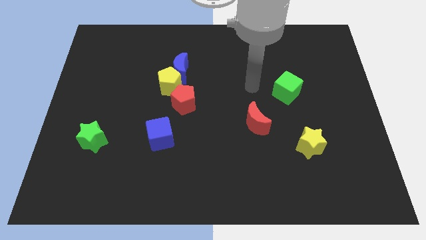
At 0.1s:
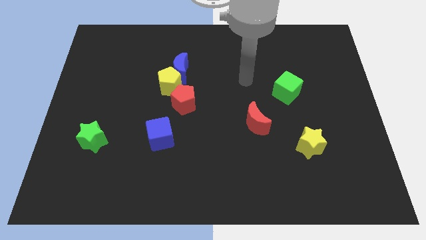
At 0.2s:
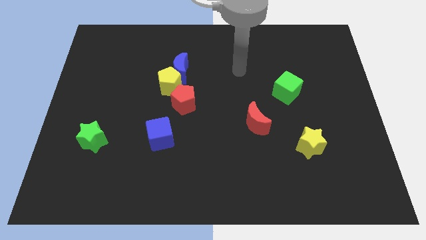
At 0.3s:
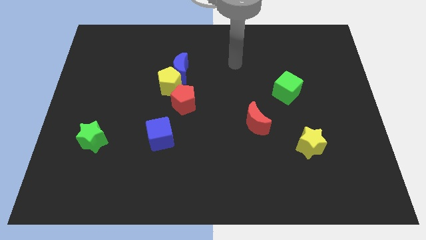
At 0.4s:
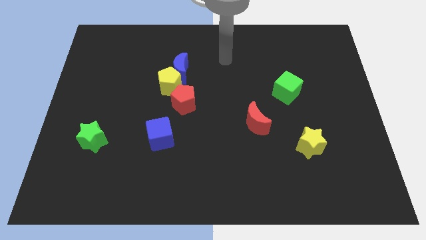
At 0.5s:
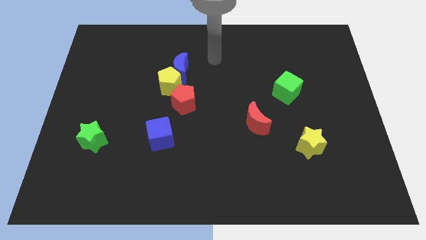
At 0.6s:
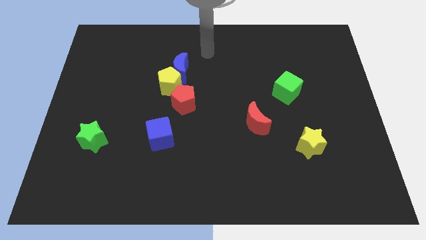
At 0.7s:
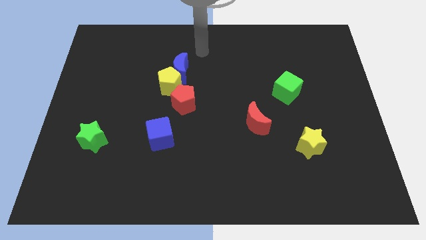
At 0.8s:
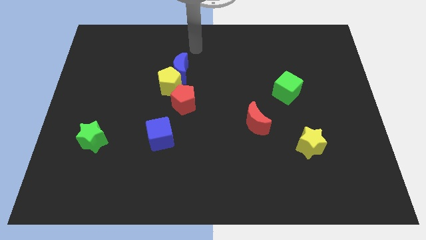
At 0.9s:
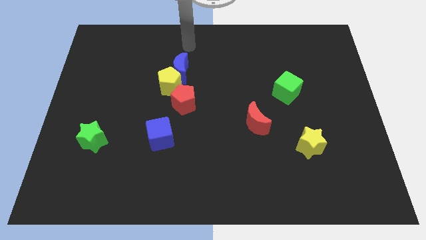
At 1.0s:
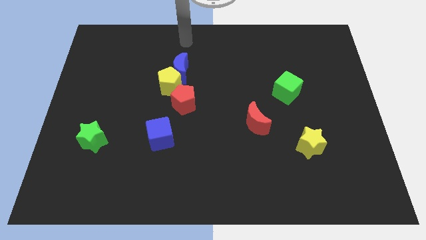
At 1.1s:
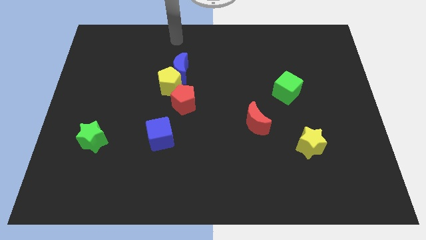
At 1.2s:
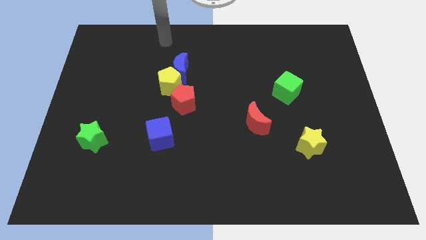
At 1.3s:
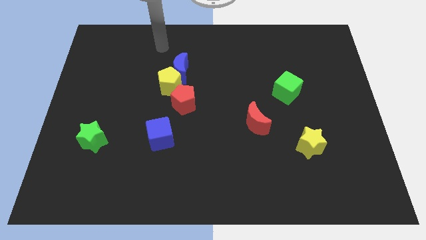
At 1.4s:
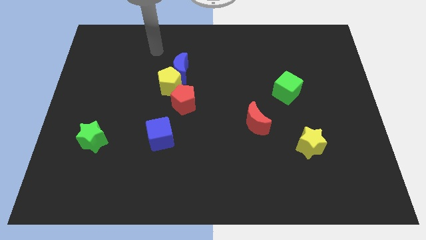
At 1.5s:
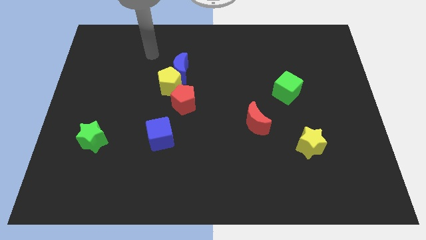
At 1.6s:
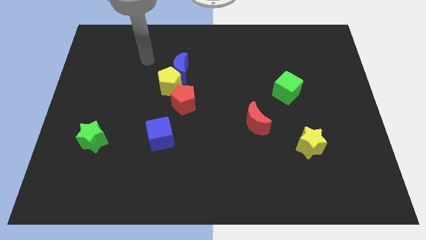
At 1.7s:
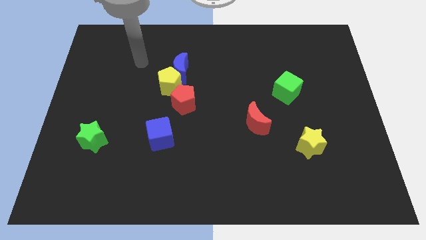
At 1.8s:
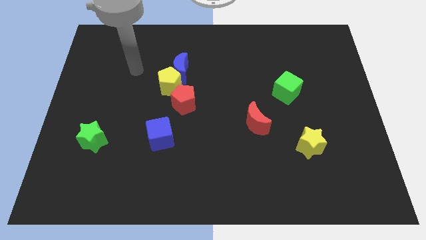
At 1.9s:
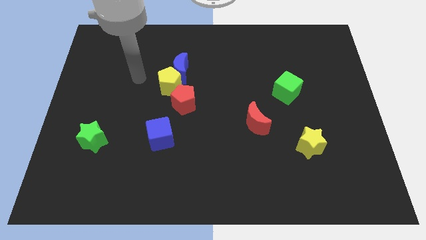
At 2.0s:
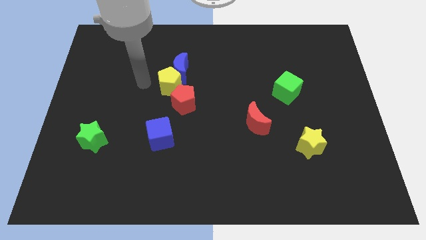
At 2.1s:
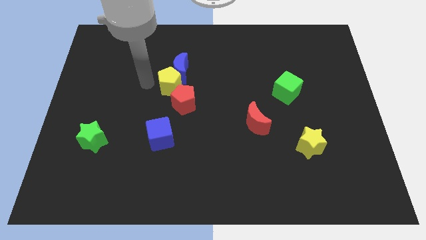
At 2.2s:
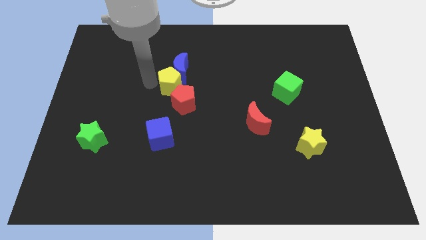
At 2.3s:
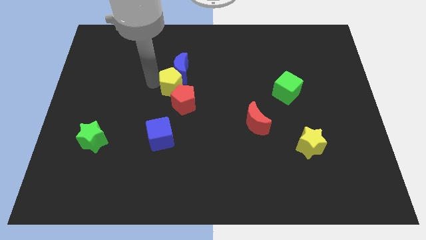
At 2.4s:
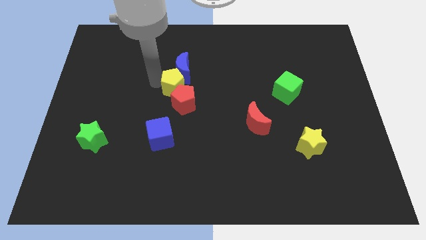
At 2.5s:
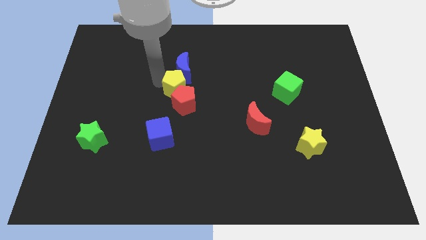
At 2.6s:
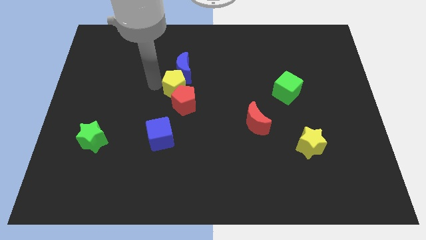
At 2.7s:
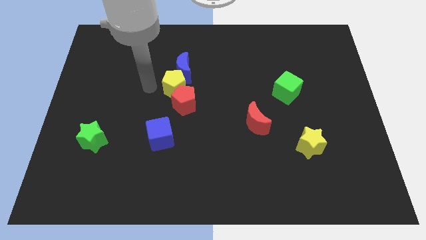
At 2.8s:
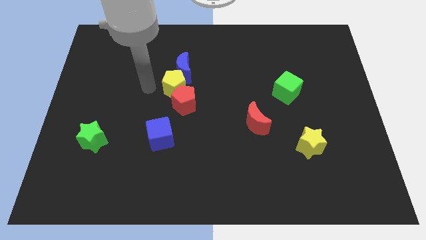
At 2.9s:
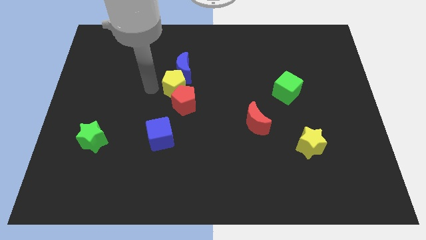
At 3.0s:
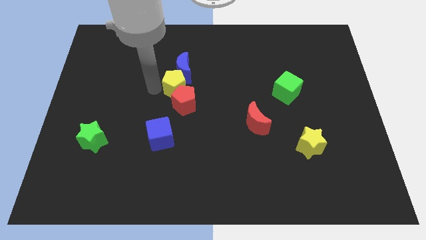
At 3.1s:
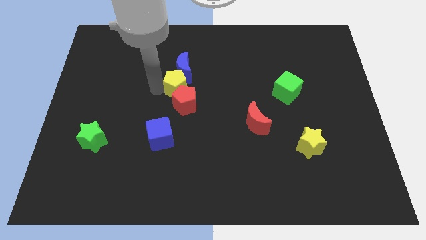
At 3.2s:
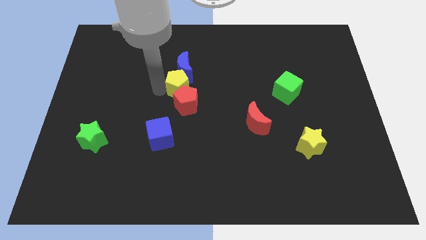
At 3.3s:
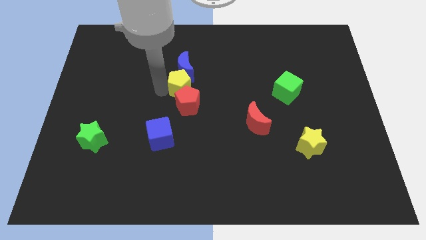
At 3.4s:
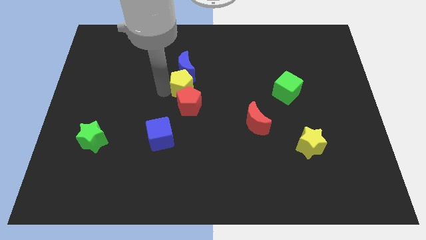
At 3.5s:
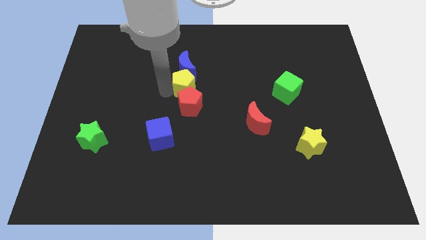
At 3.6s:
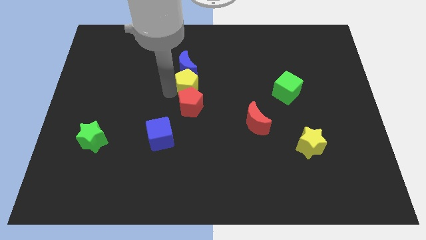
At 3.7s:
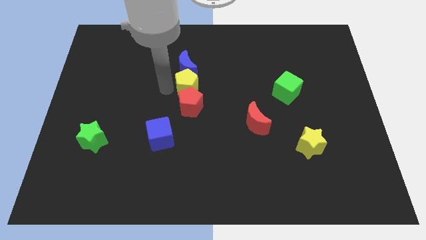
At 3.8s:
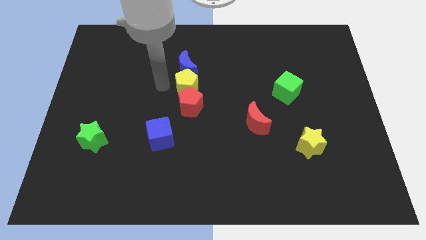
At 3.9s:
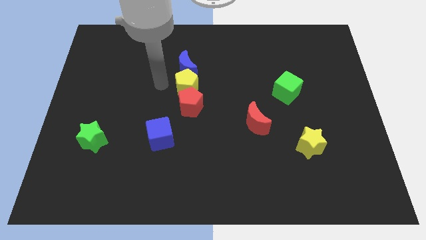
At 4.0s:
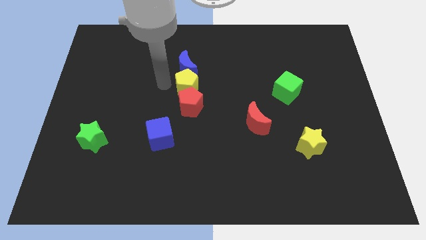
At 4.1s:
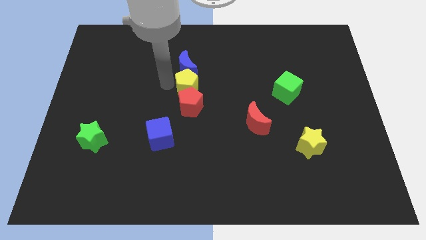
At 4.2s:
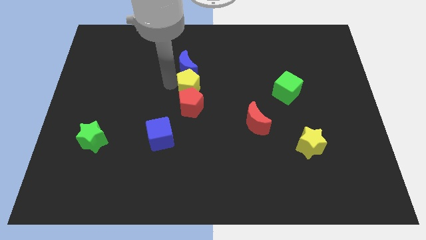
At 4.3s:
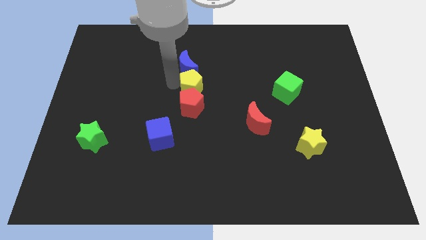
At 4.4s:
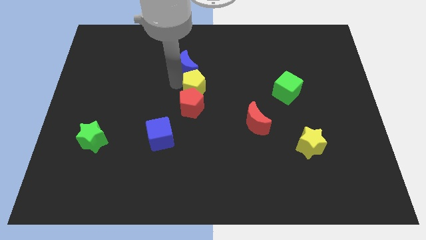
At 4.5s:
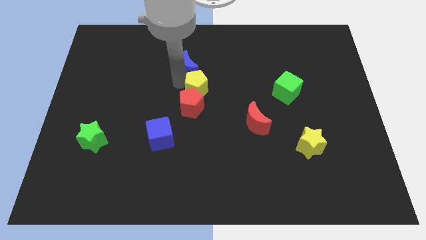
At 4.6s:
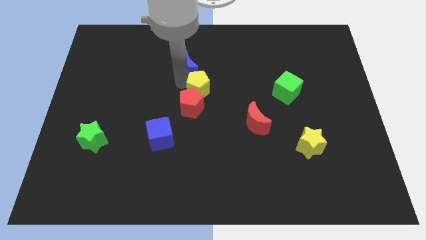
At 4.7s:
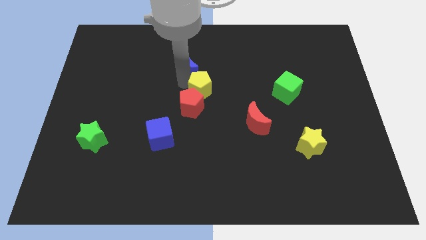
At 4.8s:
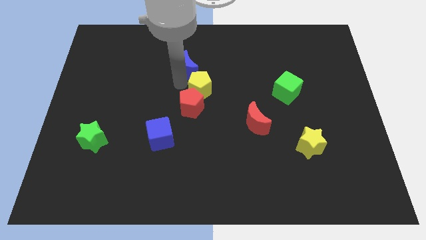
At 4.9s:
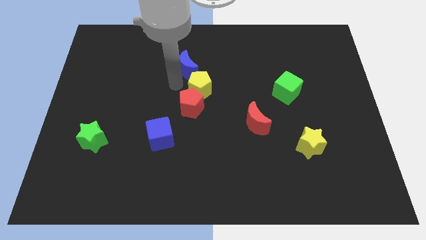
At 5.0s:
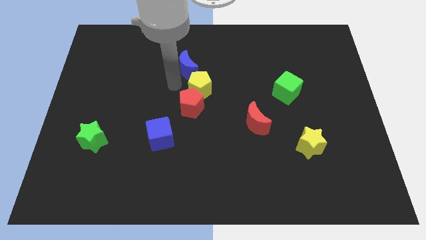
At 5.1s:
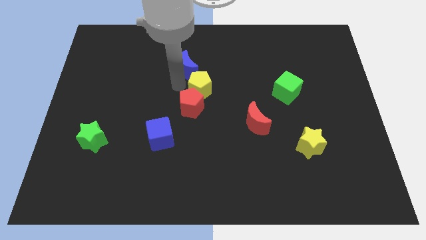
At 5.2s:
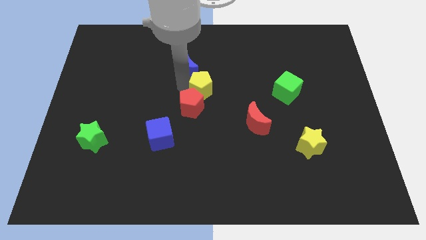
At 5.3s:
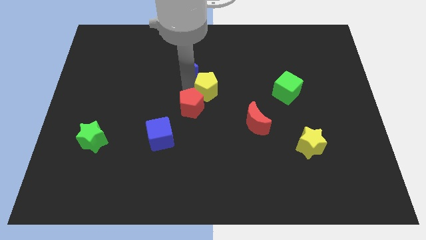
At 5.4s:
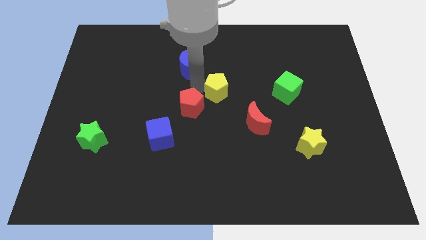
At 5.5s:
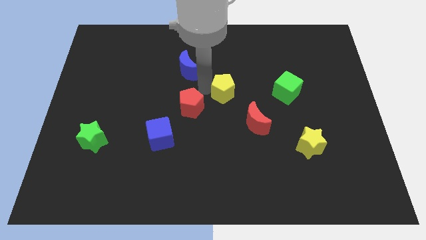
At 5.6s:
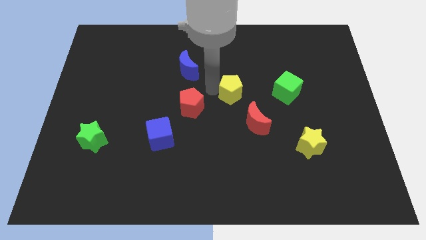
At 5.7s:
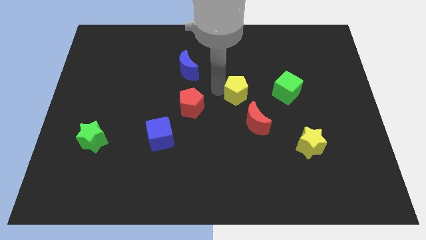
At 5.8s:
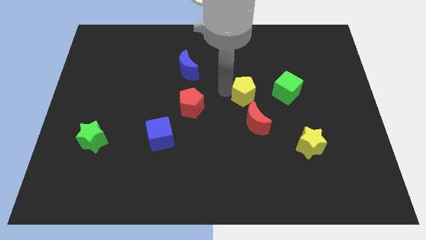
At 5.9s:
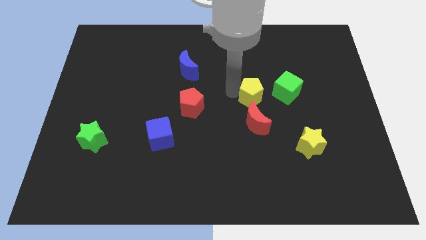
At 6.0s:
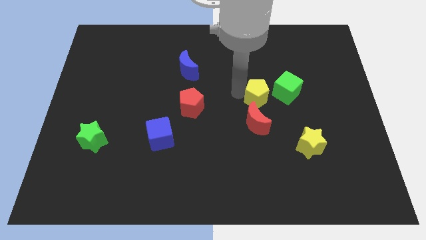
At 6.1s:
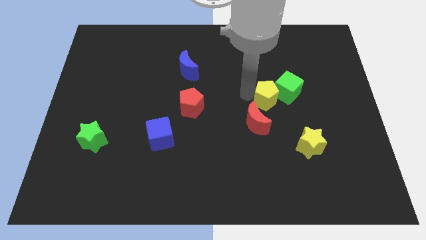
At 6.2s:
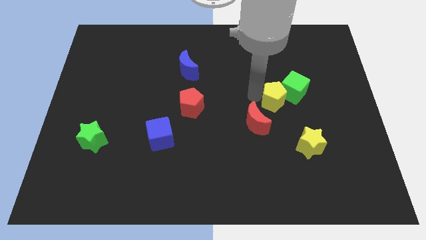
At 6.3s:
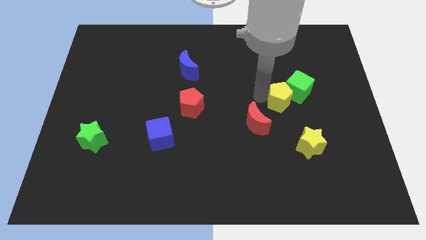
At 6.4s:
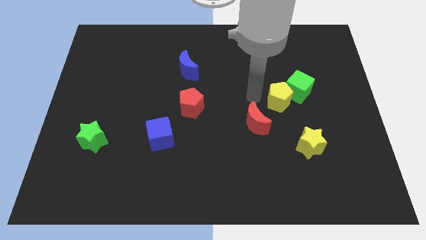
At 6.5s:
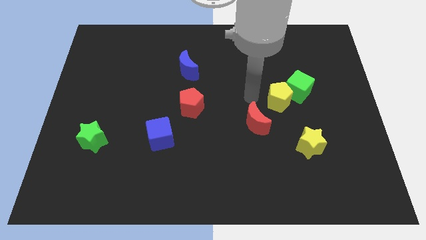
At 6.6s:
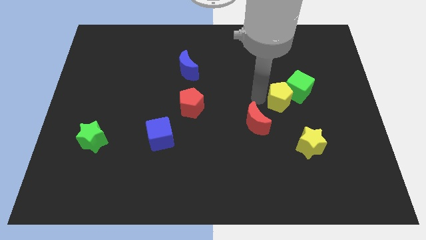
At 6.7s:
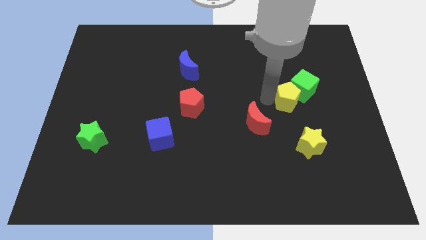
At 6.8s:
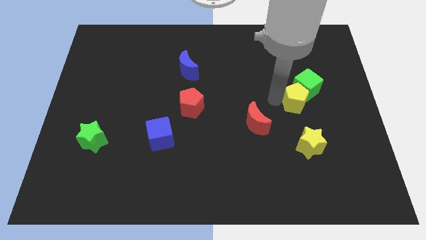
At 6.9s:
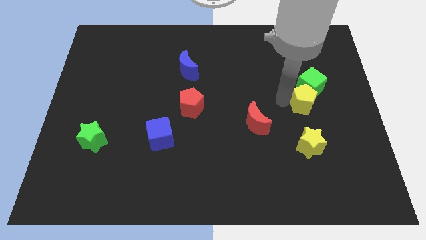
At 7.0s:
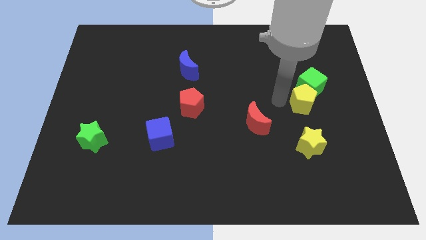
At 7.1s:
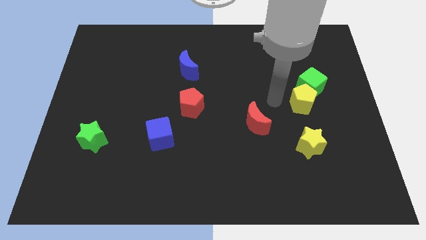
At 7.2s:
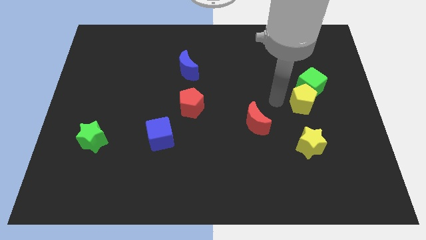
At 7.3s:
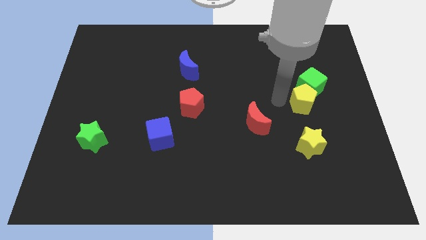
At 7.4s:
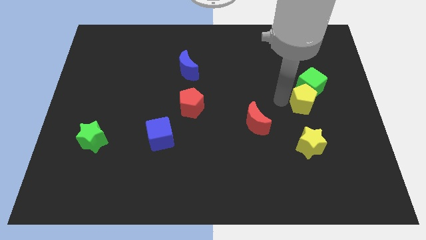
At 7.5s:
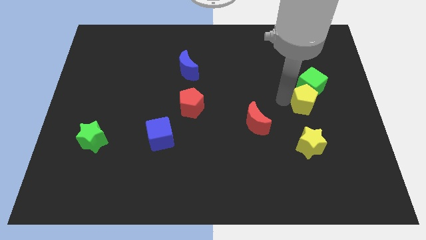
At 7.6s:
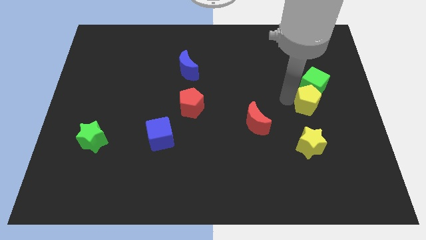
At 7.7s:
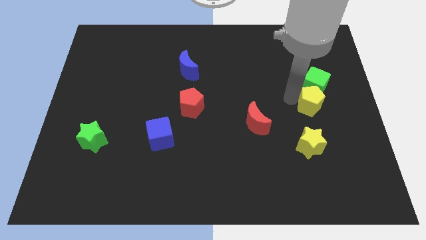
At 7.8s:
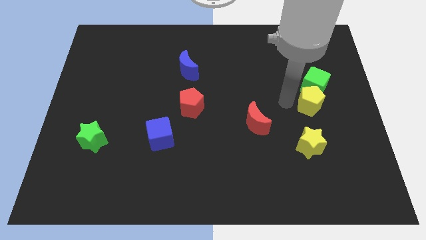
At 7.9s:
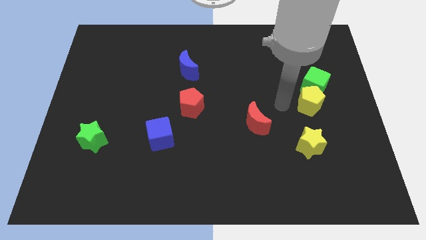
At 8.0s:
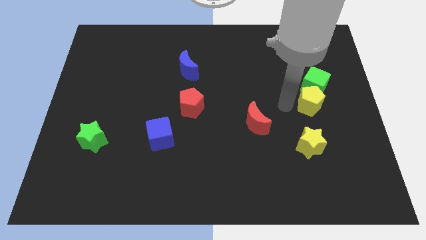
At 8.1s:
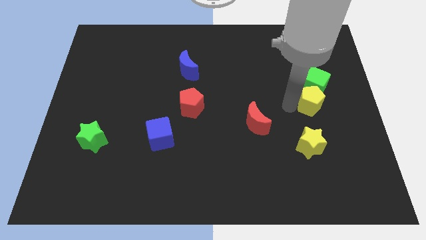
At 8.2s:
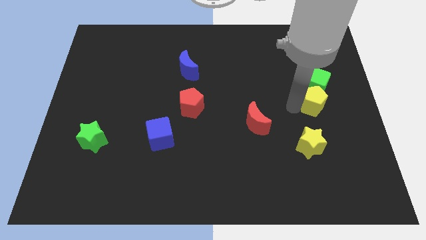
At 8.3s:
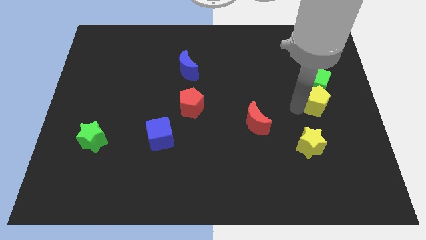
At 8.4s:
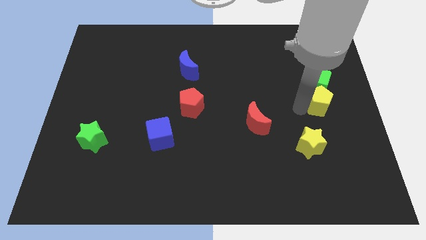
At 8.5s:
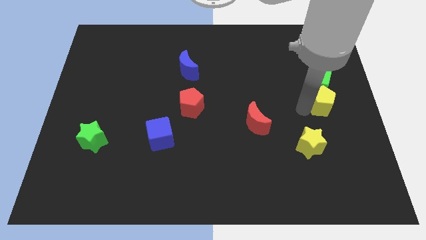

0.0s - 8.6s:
move the yellow pentagon to the right side
